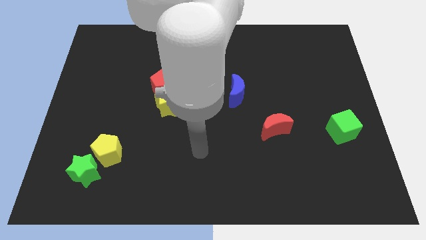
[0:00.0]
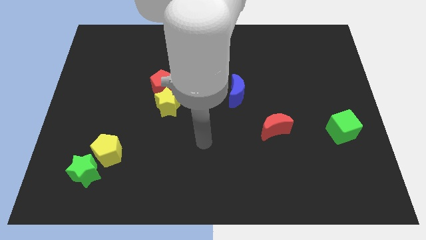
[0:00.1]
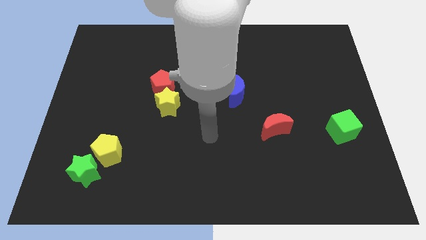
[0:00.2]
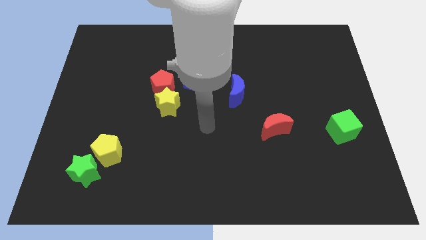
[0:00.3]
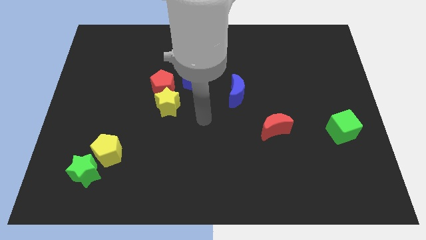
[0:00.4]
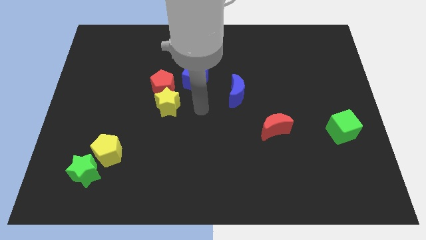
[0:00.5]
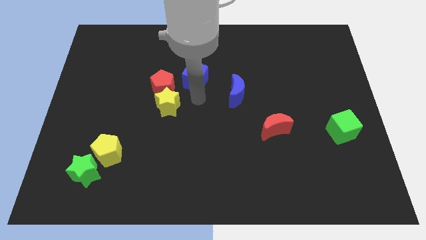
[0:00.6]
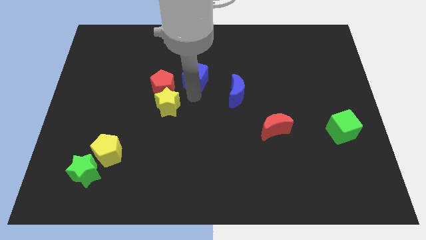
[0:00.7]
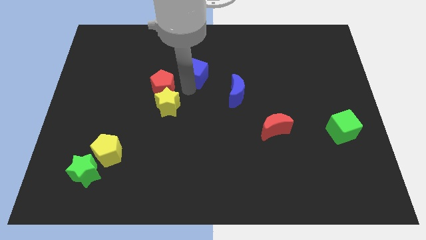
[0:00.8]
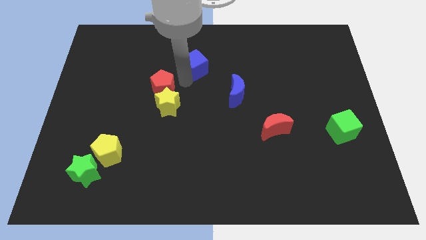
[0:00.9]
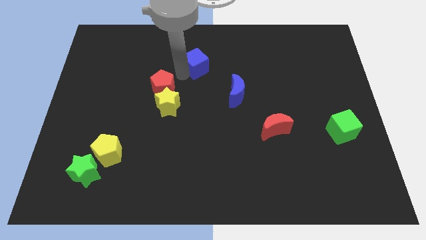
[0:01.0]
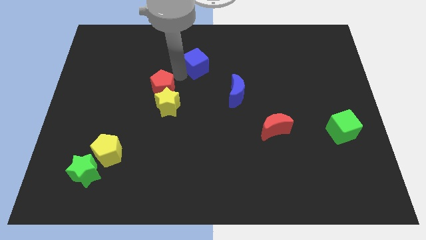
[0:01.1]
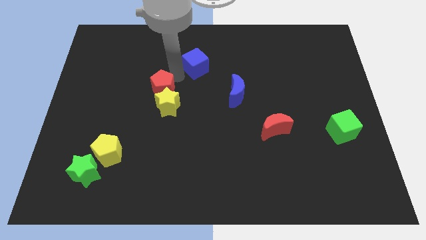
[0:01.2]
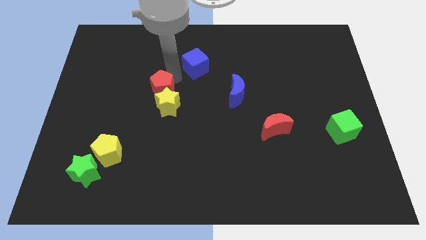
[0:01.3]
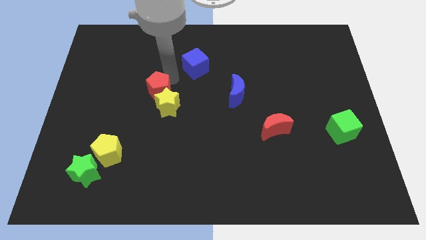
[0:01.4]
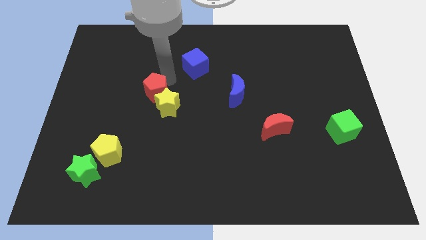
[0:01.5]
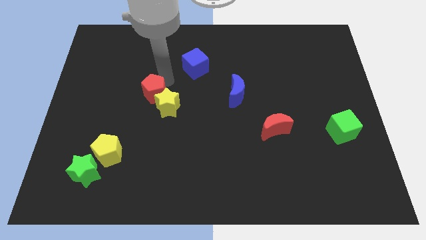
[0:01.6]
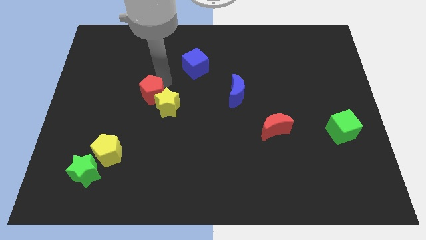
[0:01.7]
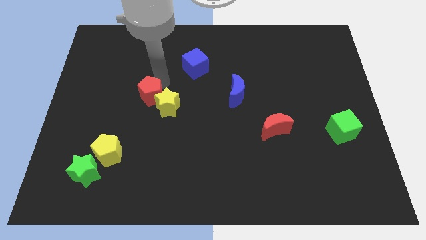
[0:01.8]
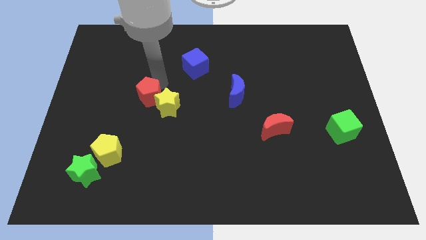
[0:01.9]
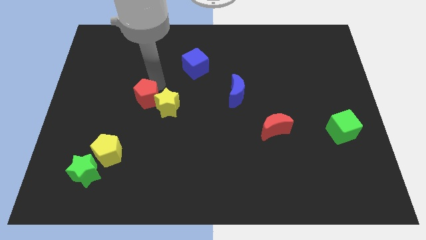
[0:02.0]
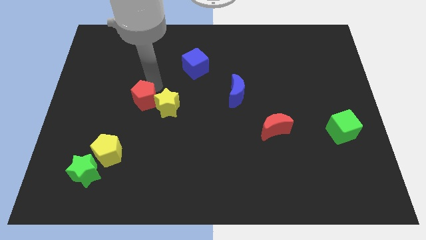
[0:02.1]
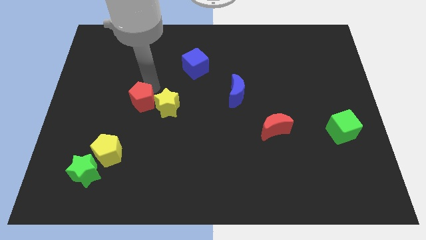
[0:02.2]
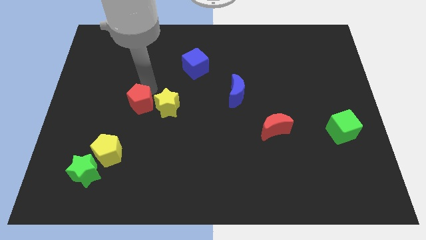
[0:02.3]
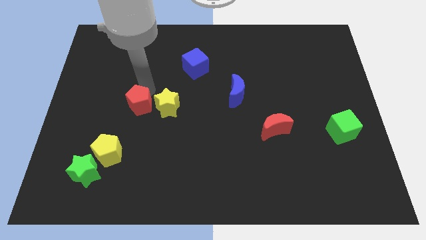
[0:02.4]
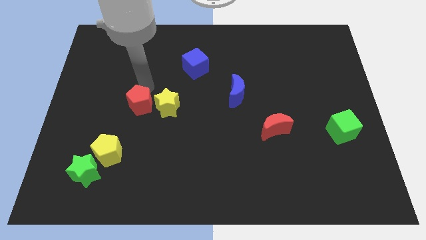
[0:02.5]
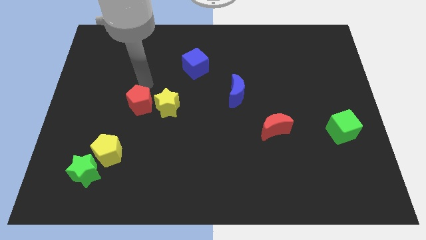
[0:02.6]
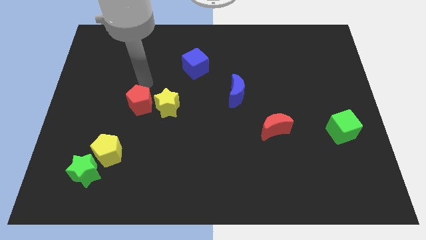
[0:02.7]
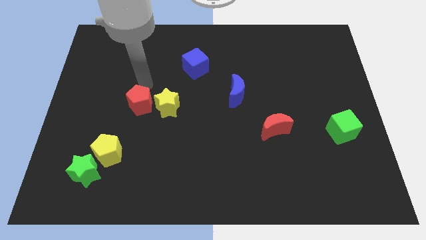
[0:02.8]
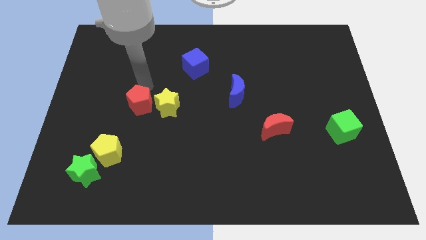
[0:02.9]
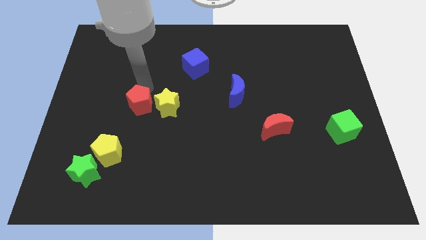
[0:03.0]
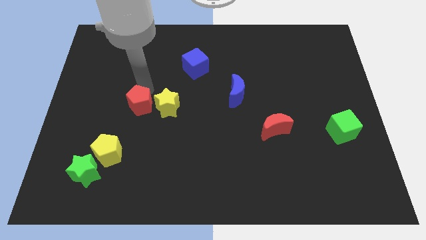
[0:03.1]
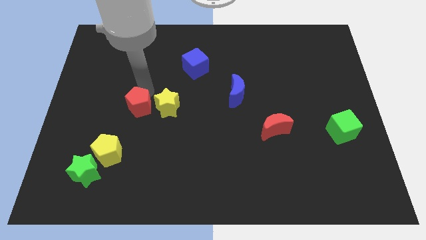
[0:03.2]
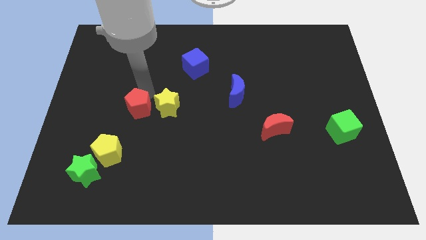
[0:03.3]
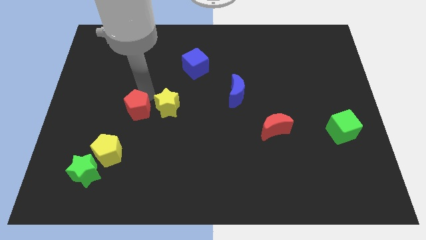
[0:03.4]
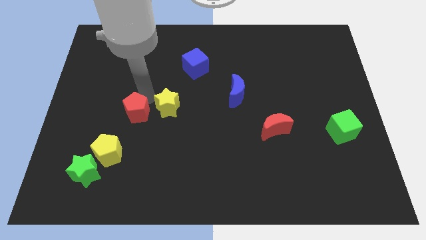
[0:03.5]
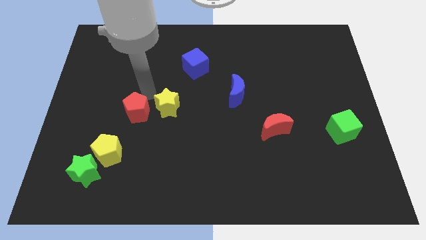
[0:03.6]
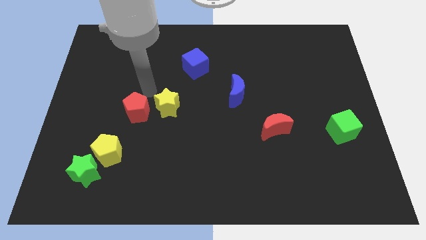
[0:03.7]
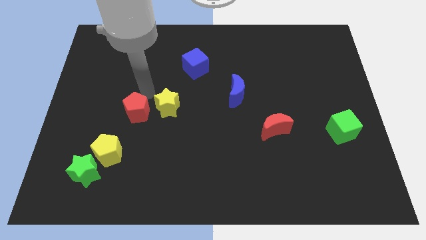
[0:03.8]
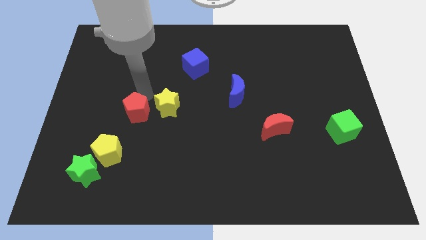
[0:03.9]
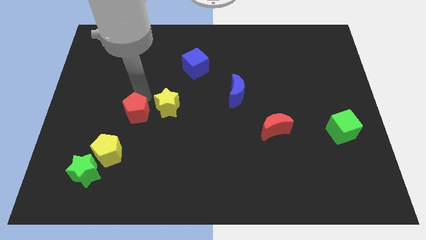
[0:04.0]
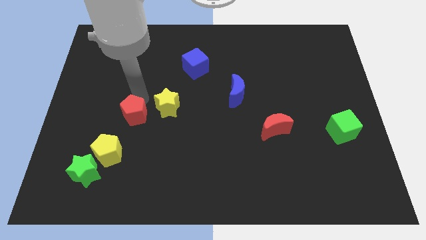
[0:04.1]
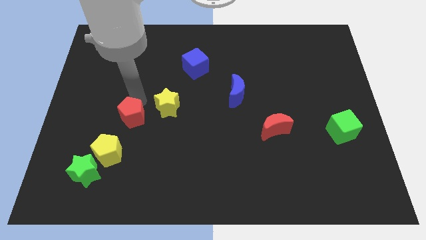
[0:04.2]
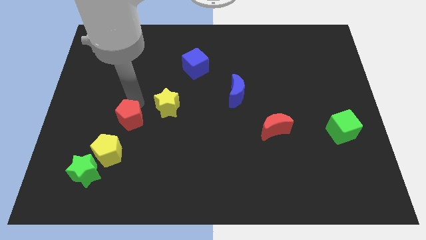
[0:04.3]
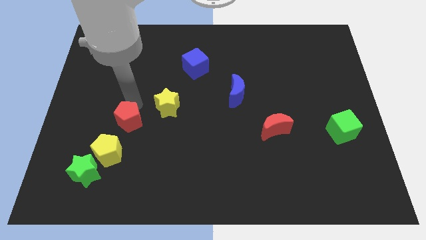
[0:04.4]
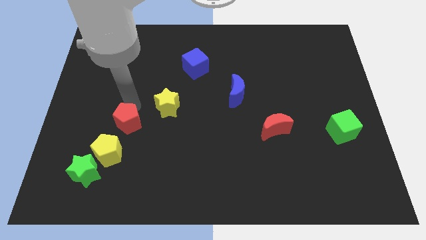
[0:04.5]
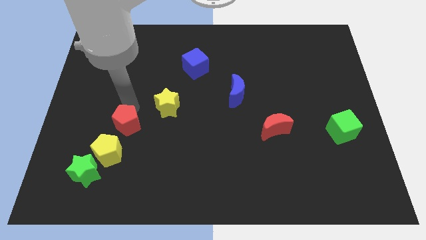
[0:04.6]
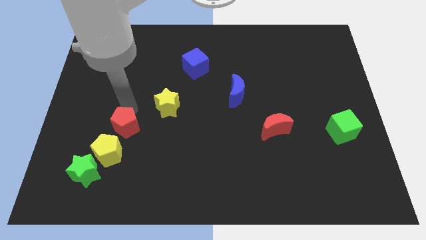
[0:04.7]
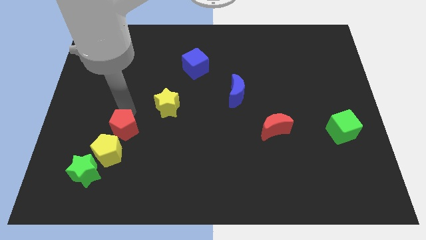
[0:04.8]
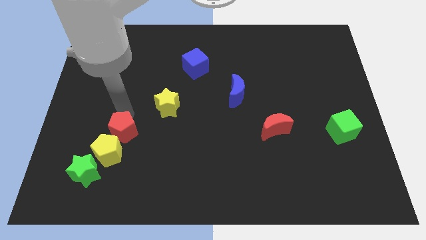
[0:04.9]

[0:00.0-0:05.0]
put the red pentagon to the top right side of the green star

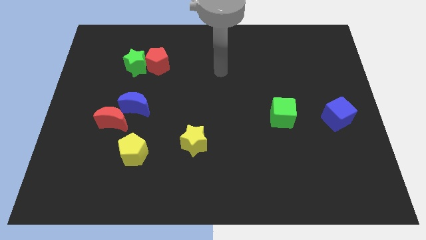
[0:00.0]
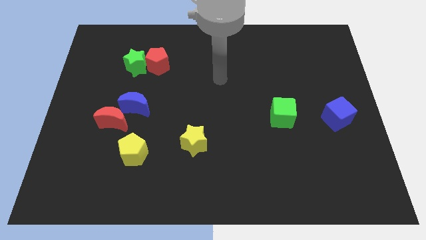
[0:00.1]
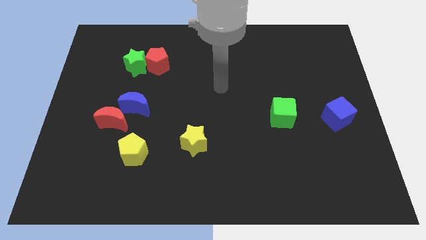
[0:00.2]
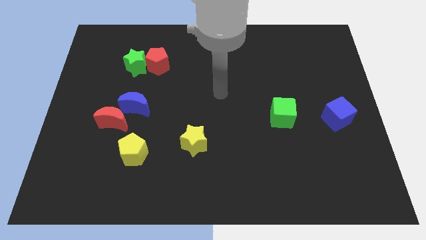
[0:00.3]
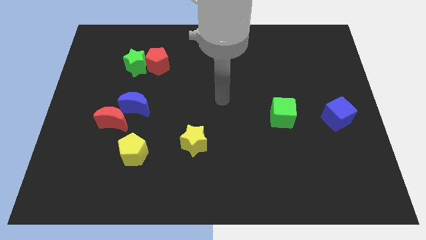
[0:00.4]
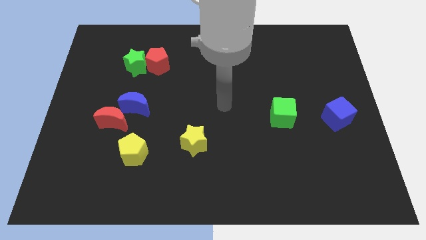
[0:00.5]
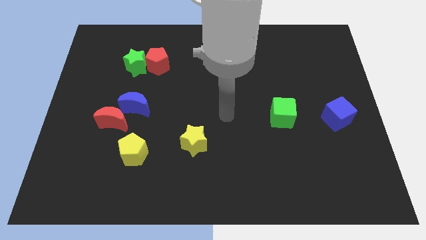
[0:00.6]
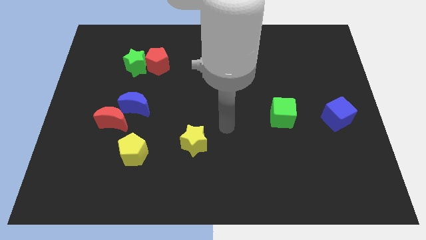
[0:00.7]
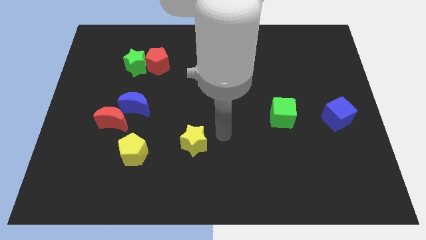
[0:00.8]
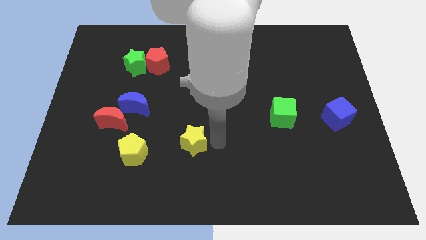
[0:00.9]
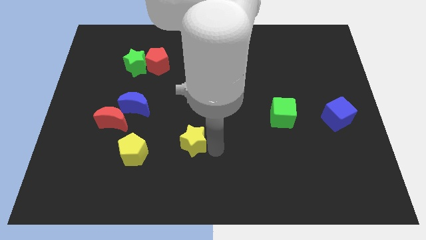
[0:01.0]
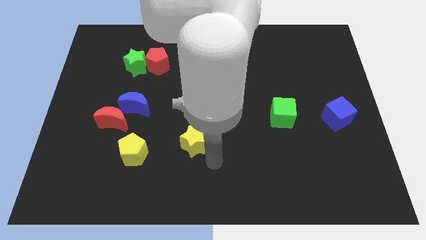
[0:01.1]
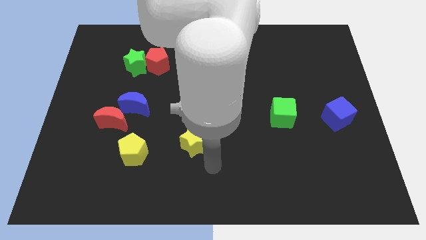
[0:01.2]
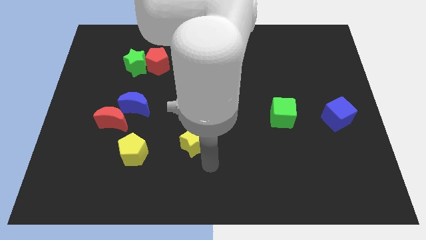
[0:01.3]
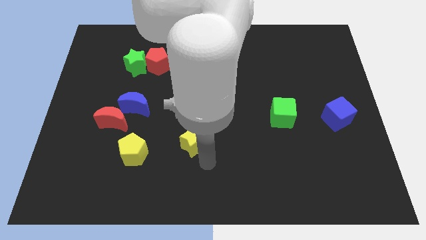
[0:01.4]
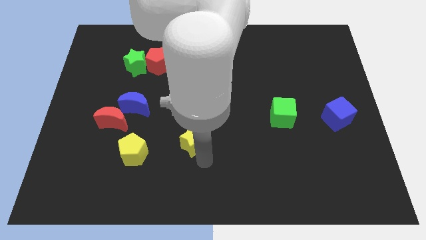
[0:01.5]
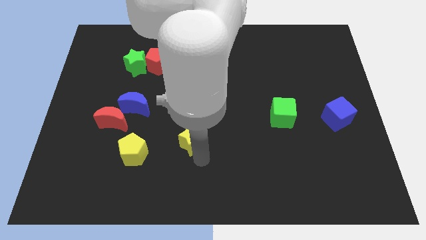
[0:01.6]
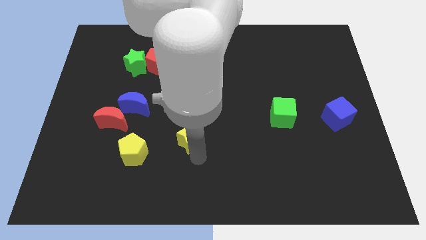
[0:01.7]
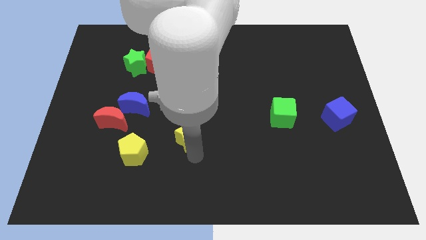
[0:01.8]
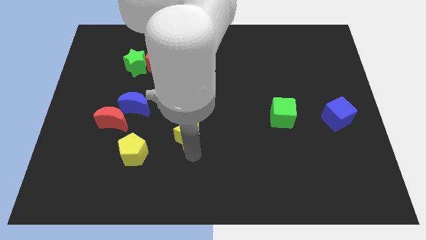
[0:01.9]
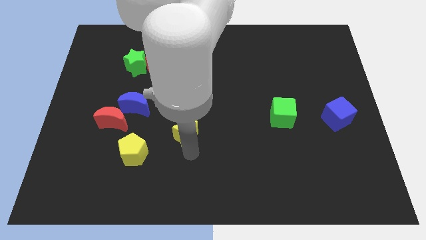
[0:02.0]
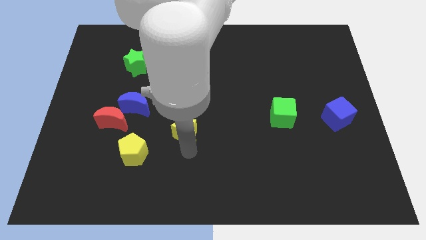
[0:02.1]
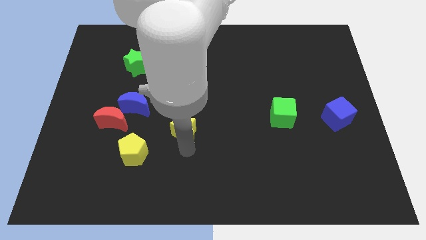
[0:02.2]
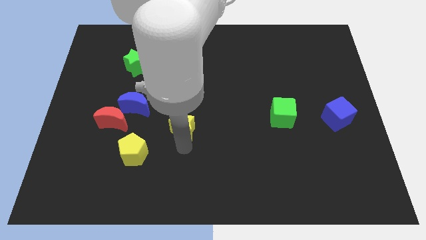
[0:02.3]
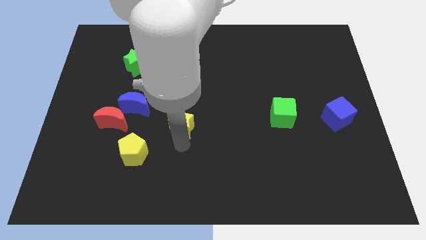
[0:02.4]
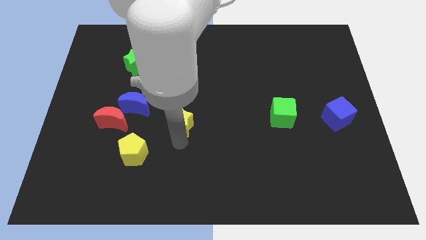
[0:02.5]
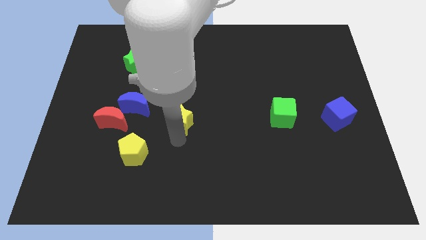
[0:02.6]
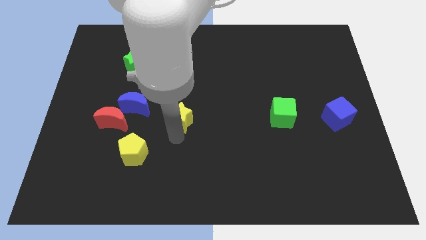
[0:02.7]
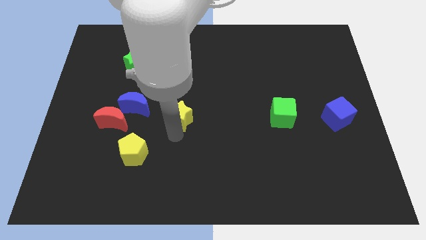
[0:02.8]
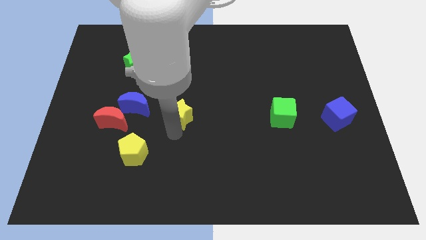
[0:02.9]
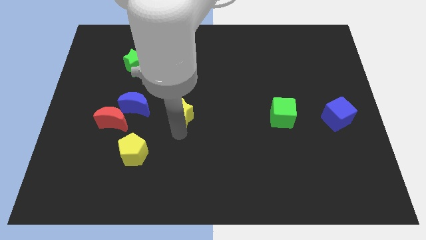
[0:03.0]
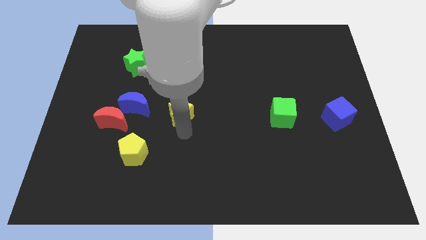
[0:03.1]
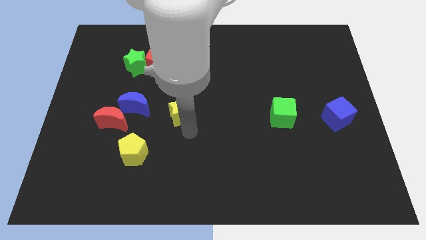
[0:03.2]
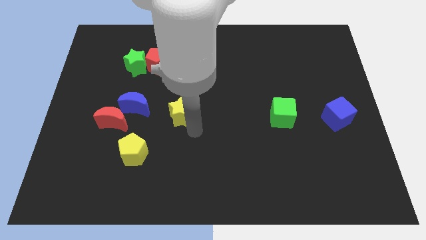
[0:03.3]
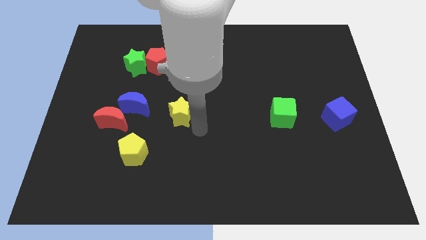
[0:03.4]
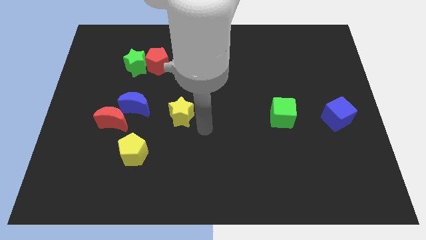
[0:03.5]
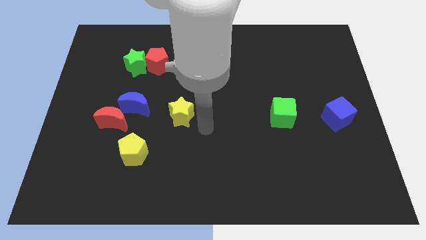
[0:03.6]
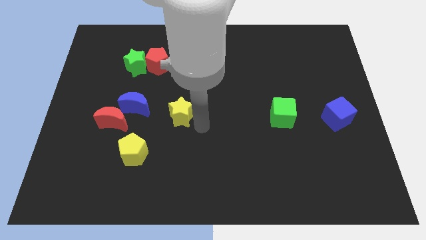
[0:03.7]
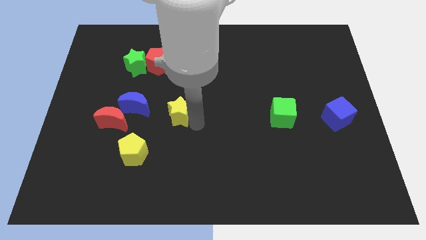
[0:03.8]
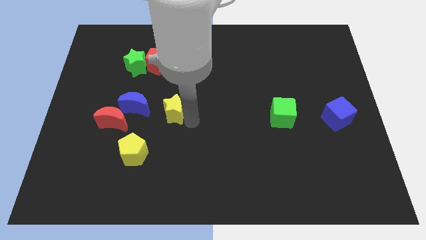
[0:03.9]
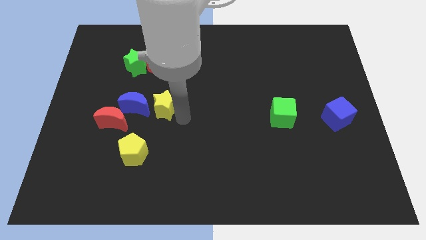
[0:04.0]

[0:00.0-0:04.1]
put the yellow star to the bottom side of the red pentagon
